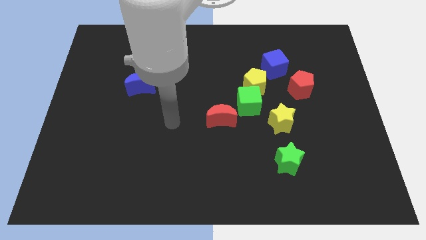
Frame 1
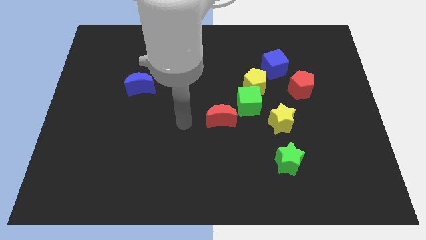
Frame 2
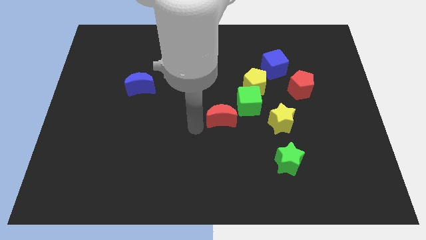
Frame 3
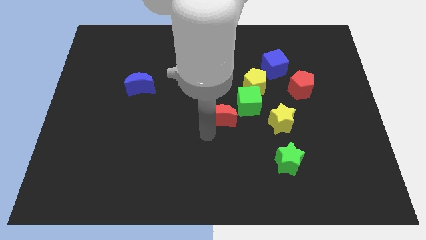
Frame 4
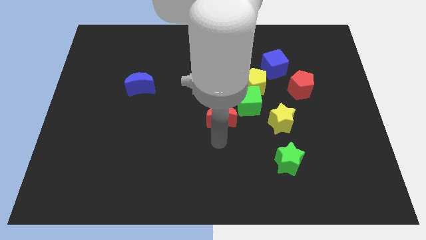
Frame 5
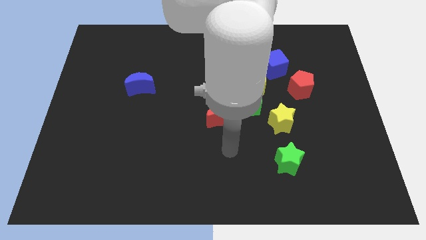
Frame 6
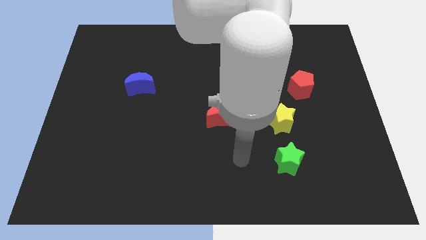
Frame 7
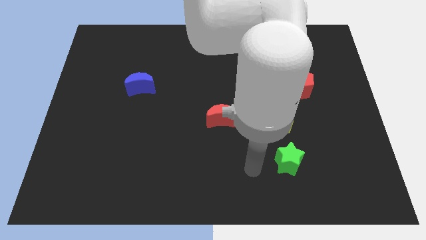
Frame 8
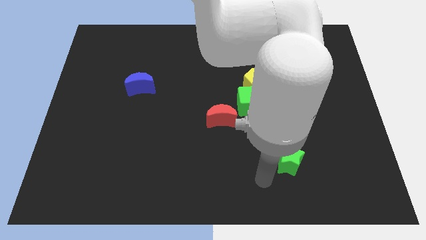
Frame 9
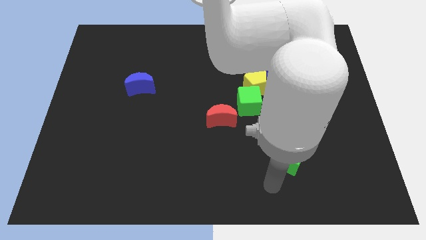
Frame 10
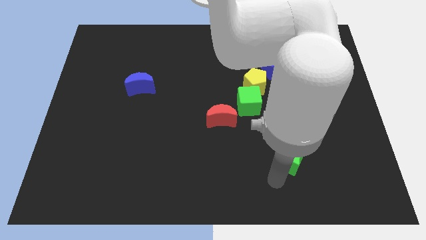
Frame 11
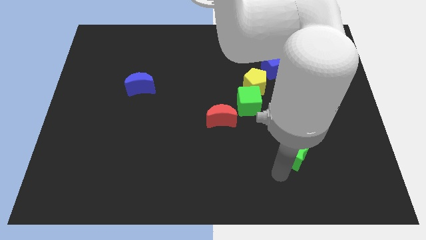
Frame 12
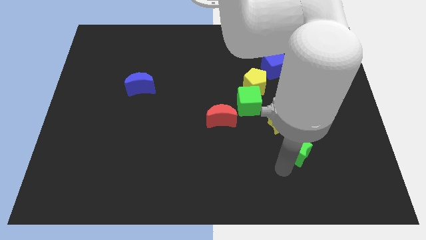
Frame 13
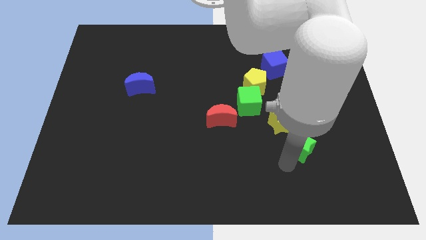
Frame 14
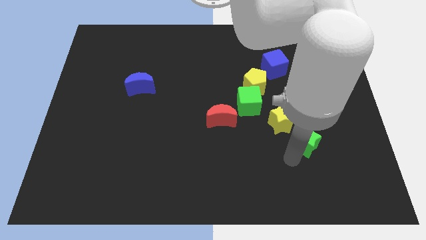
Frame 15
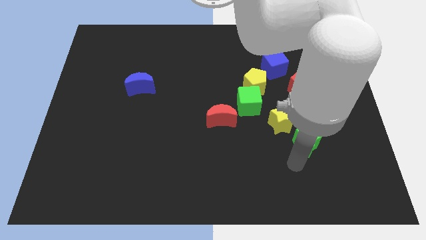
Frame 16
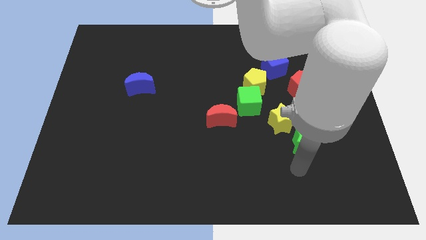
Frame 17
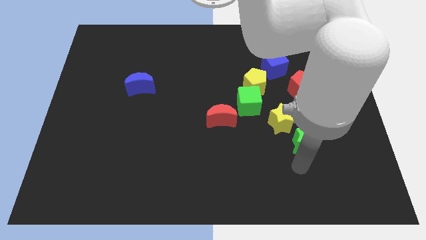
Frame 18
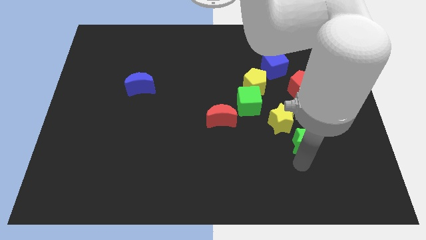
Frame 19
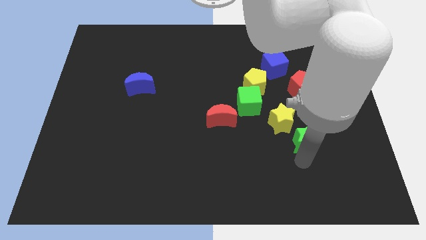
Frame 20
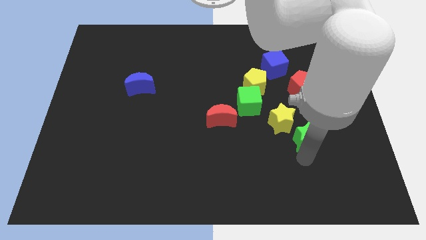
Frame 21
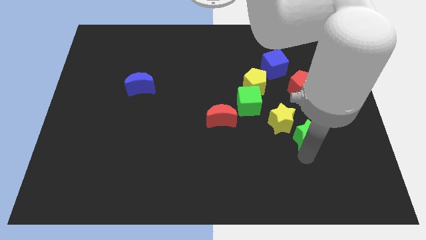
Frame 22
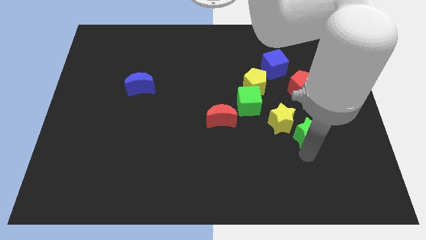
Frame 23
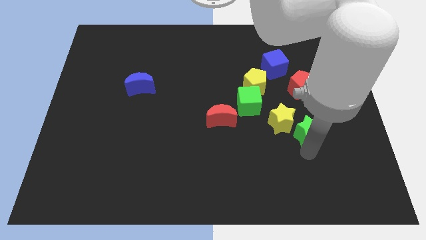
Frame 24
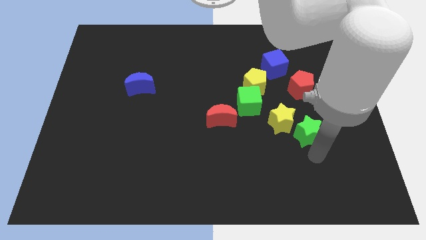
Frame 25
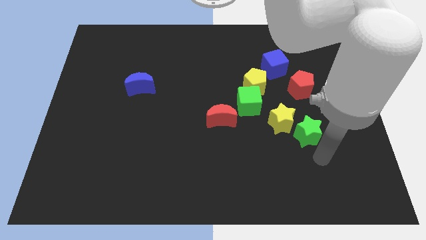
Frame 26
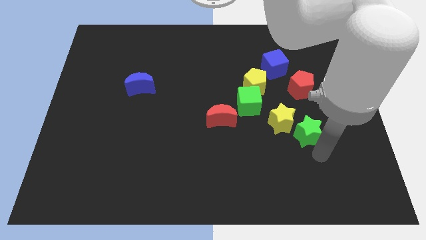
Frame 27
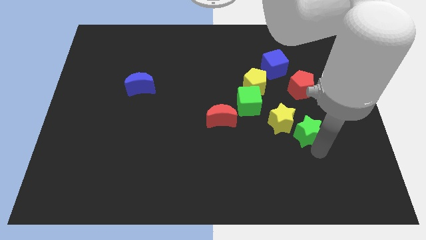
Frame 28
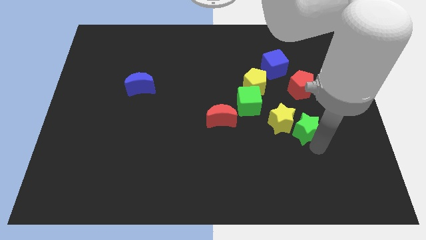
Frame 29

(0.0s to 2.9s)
push the green star up a little bit

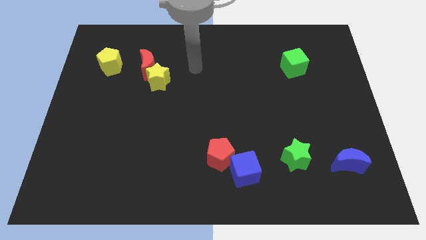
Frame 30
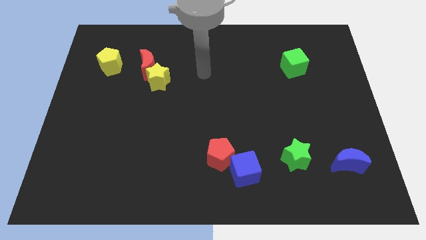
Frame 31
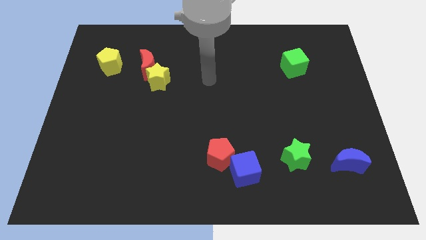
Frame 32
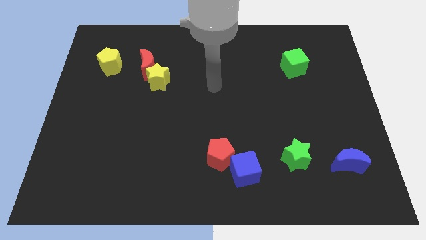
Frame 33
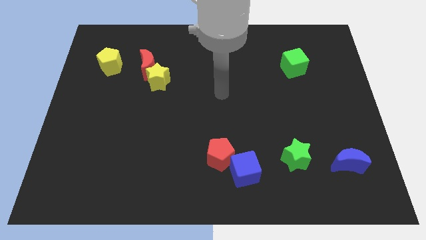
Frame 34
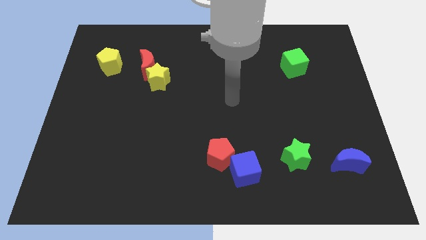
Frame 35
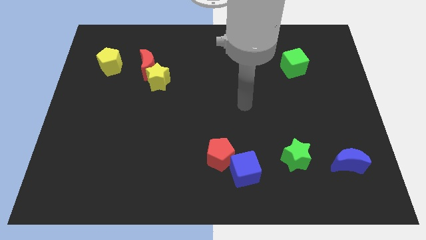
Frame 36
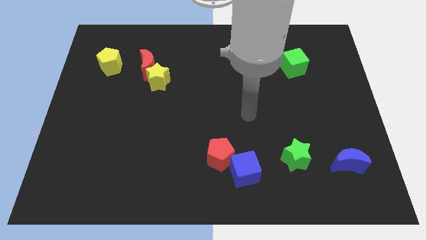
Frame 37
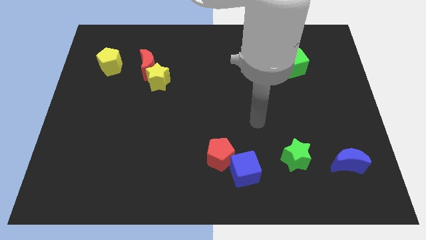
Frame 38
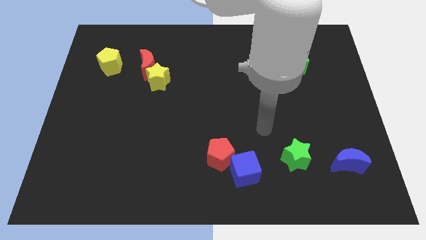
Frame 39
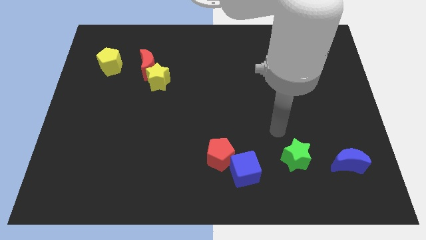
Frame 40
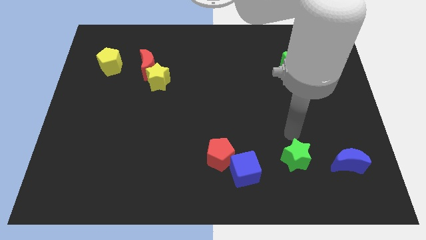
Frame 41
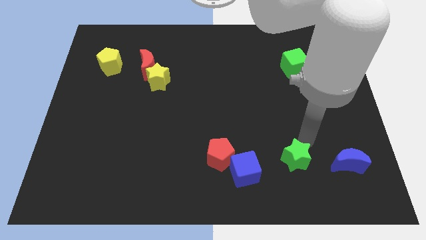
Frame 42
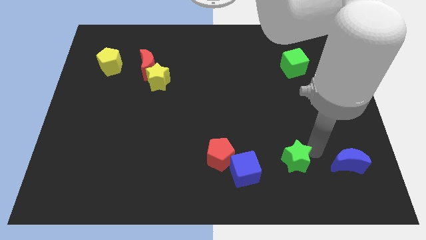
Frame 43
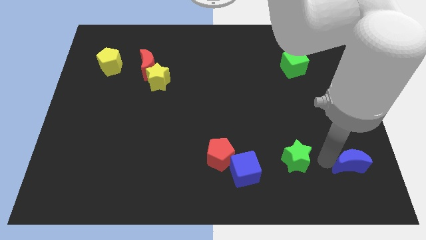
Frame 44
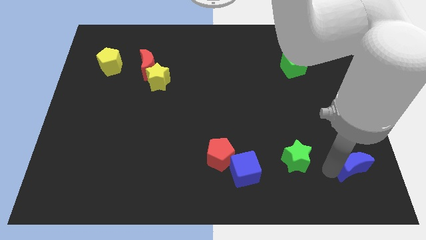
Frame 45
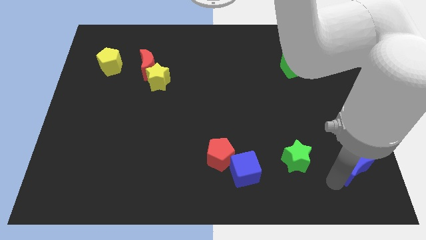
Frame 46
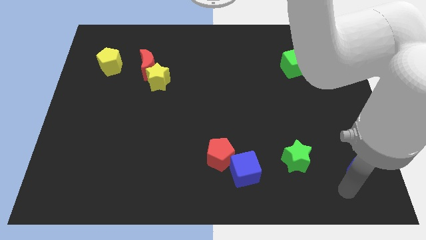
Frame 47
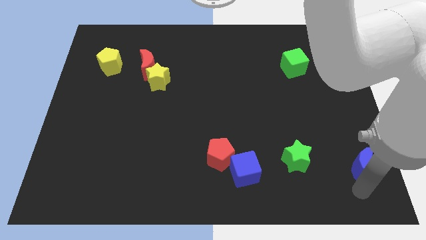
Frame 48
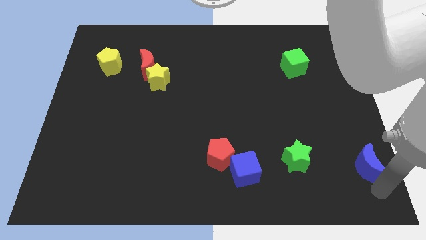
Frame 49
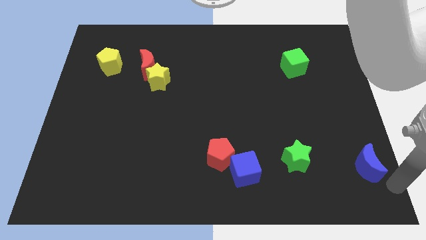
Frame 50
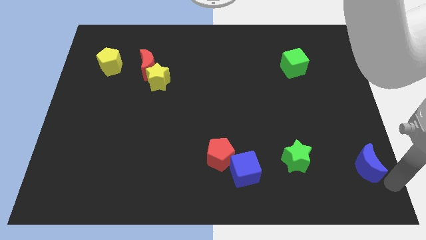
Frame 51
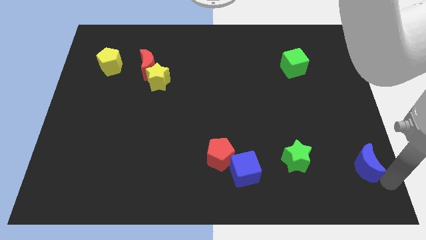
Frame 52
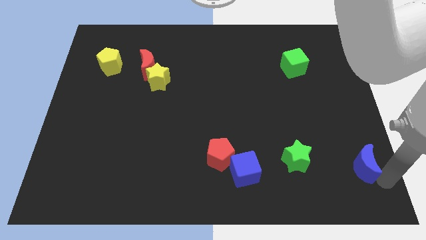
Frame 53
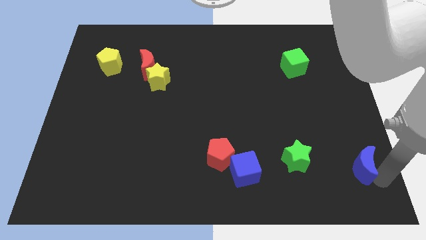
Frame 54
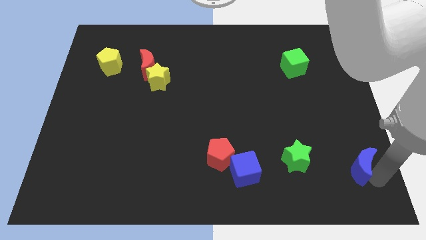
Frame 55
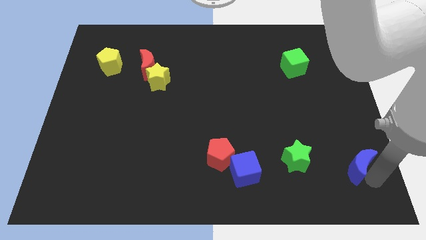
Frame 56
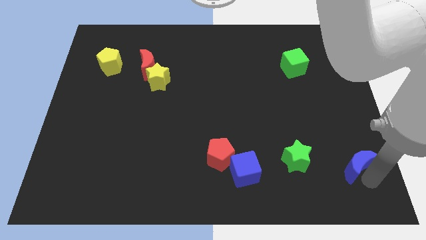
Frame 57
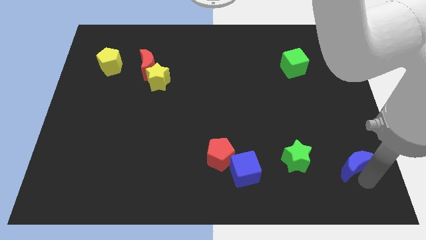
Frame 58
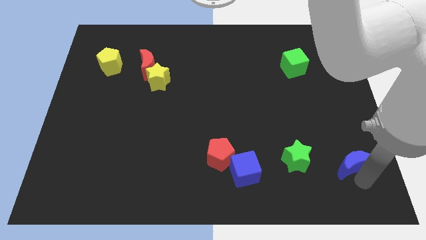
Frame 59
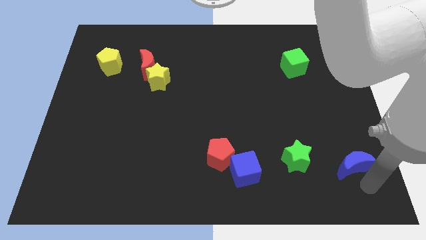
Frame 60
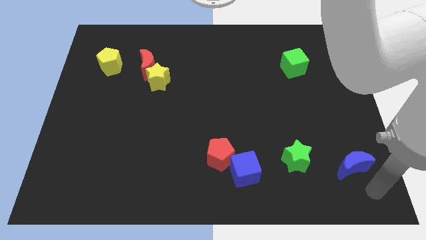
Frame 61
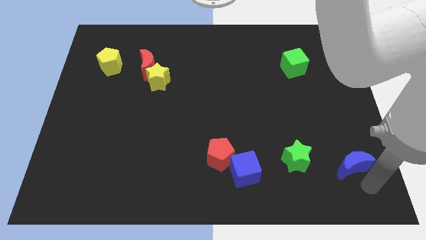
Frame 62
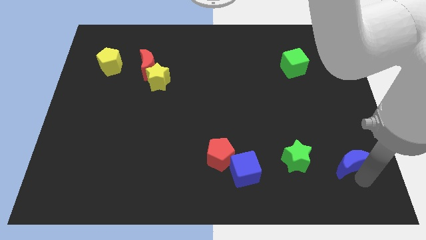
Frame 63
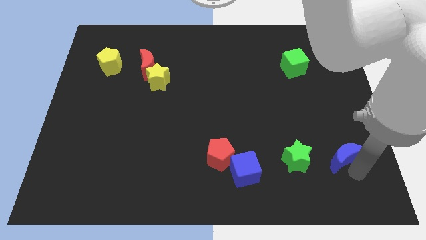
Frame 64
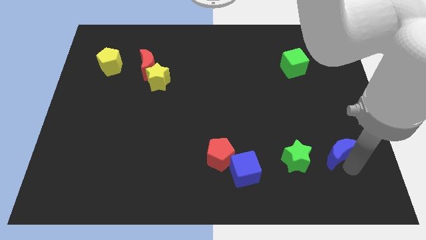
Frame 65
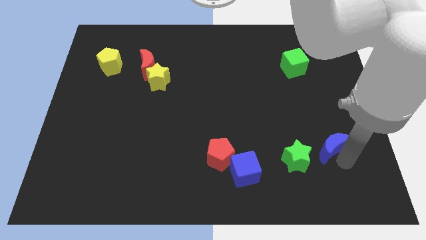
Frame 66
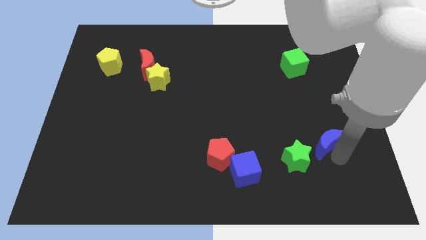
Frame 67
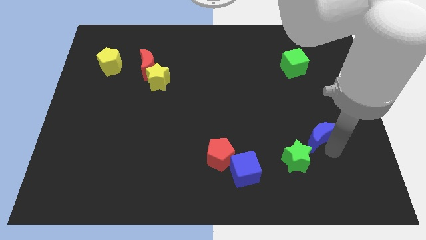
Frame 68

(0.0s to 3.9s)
slightly move the blue moon up and to the left diagonally

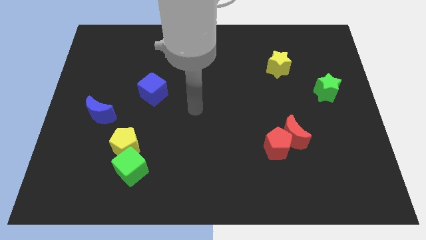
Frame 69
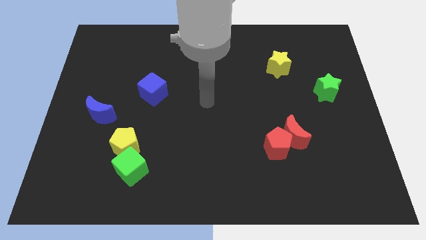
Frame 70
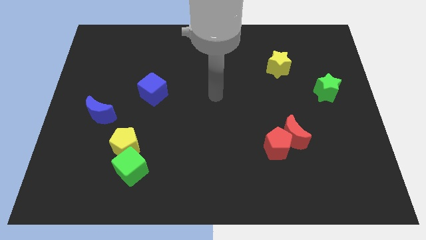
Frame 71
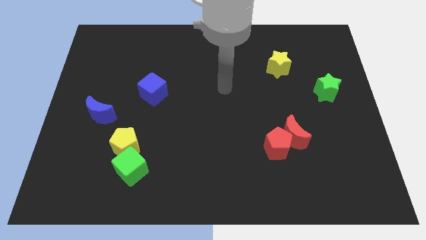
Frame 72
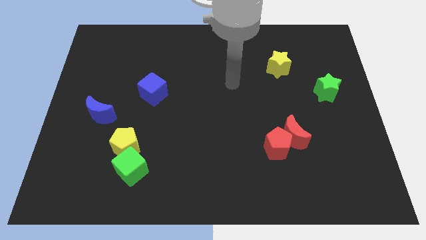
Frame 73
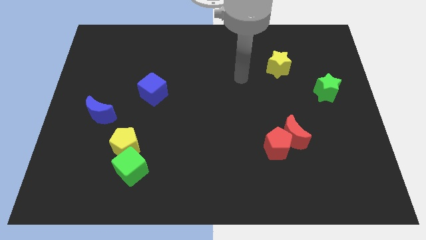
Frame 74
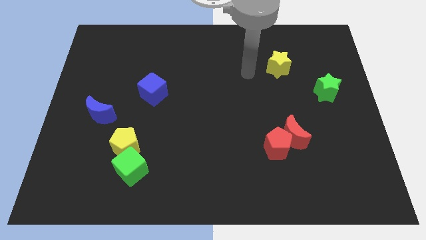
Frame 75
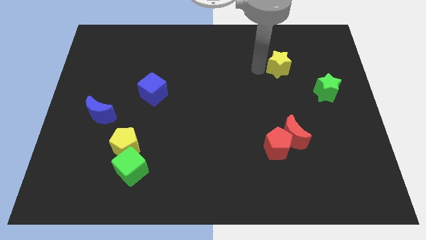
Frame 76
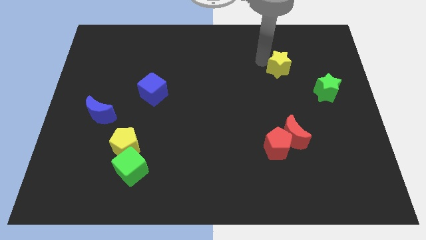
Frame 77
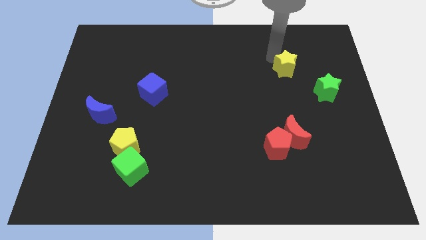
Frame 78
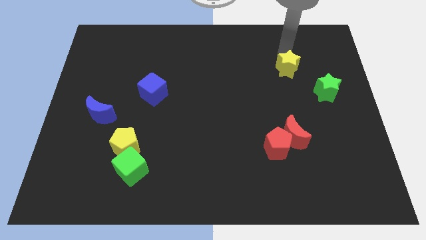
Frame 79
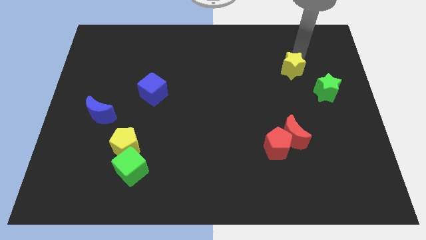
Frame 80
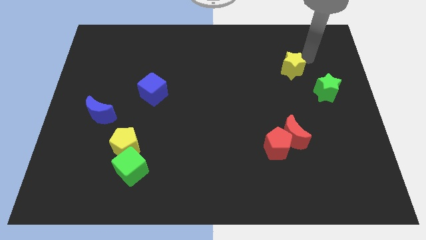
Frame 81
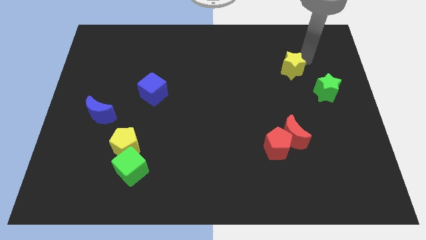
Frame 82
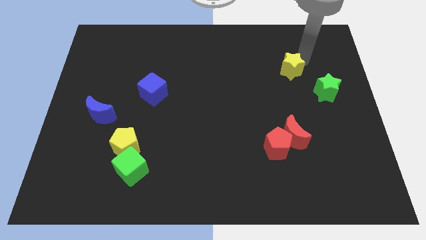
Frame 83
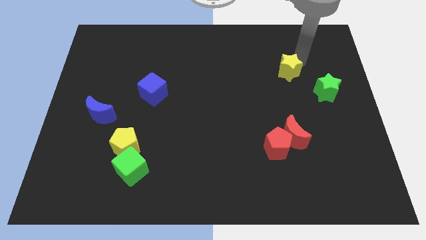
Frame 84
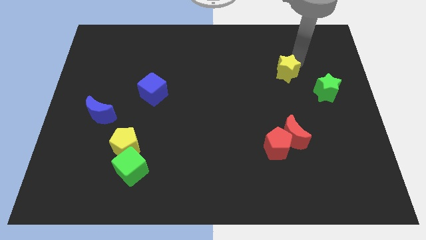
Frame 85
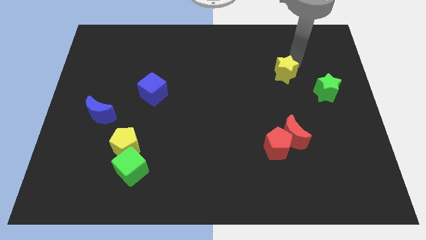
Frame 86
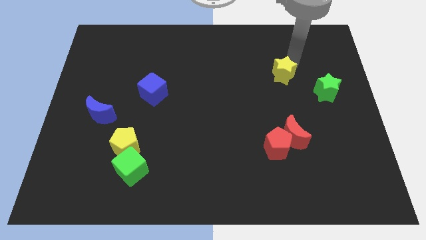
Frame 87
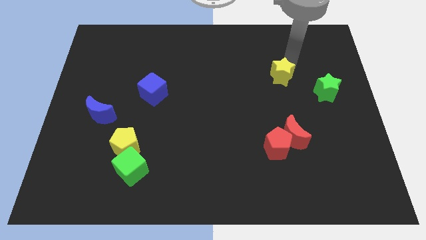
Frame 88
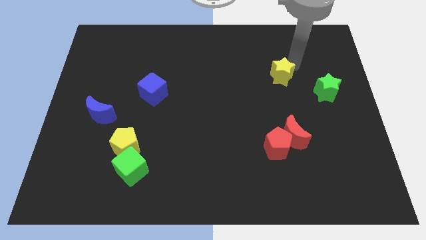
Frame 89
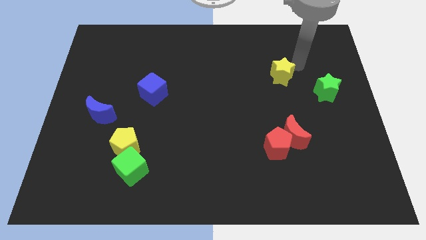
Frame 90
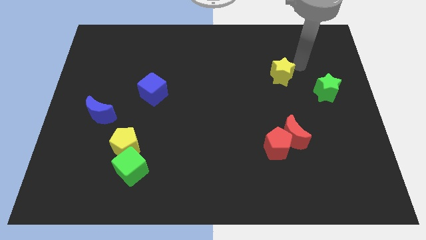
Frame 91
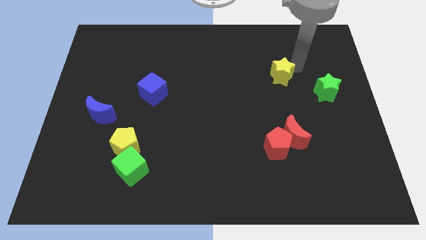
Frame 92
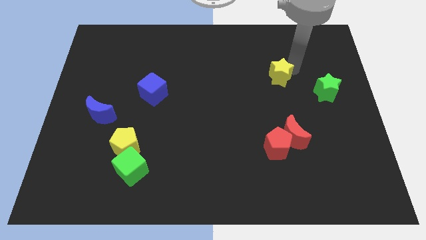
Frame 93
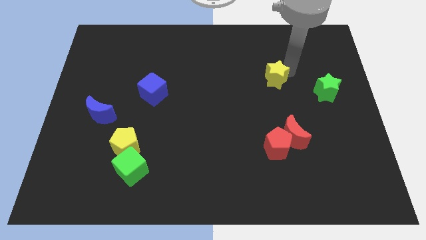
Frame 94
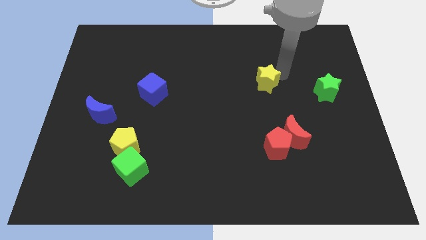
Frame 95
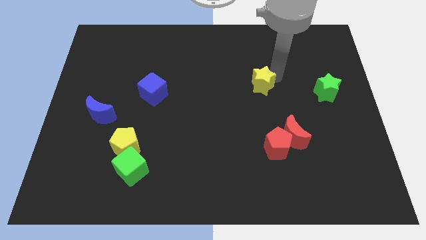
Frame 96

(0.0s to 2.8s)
push the yellow star downwards and then to the left a little
